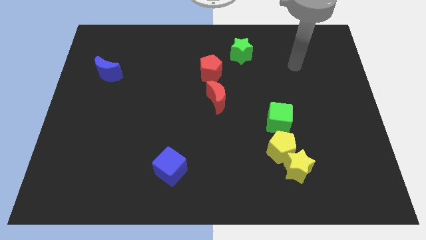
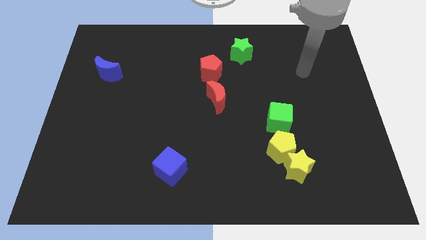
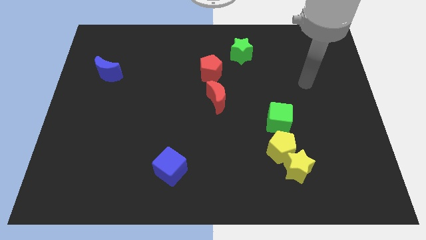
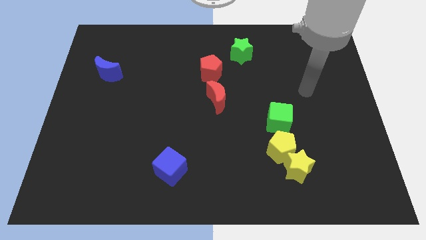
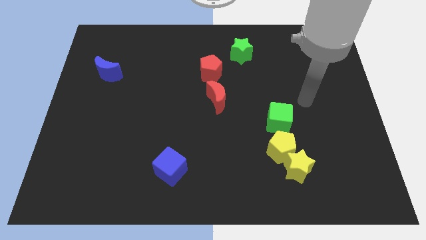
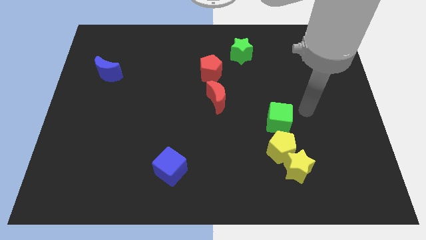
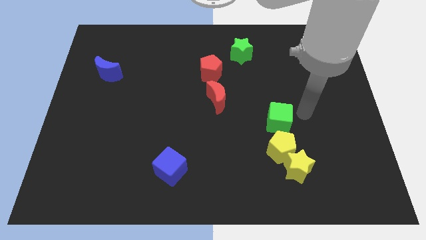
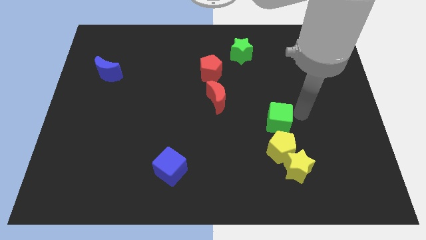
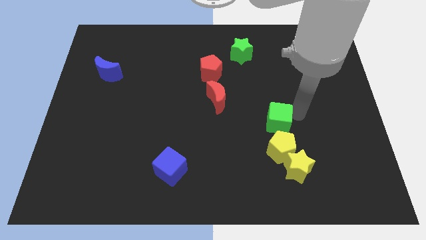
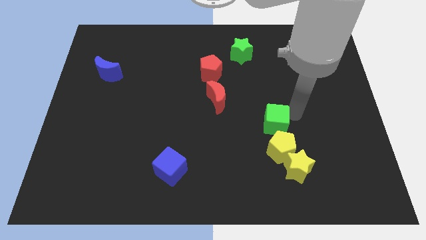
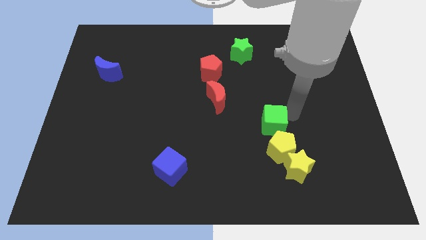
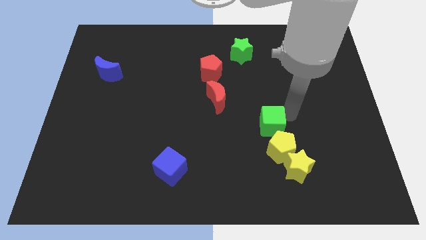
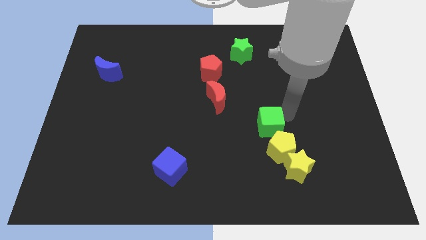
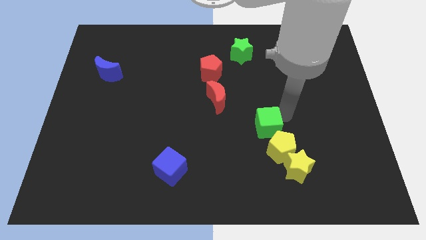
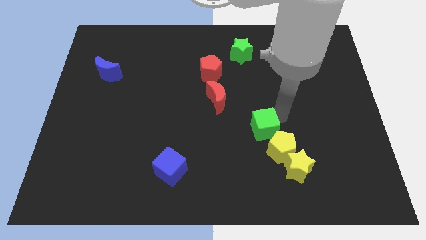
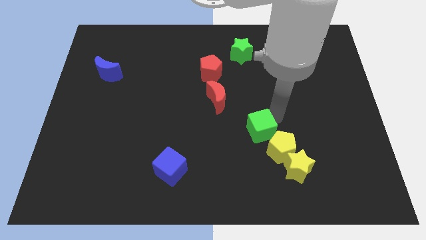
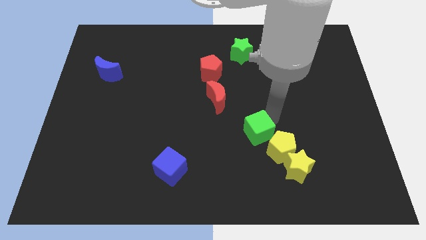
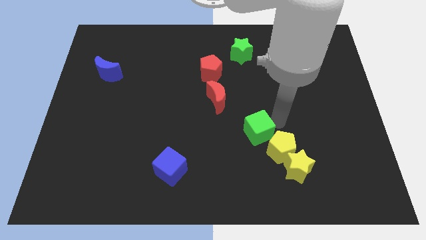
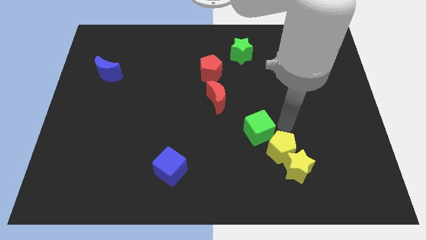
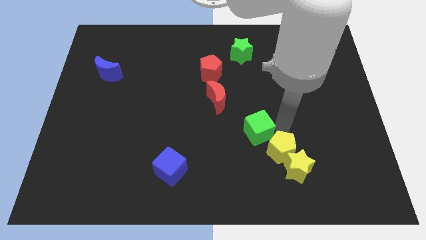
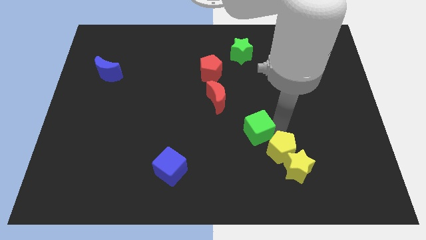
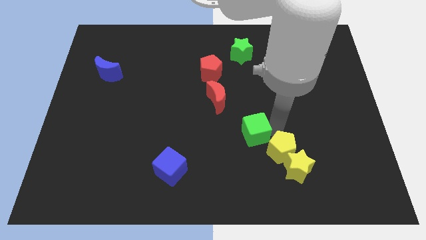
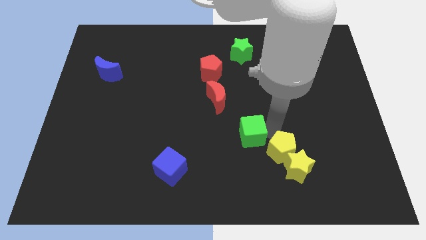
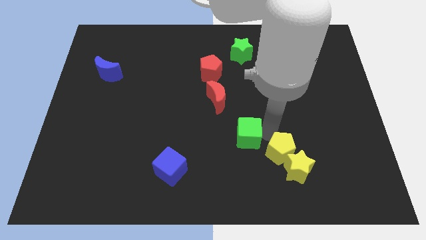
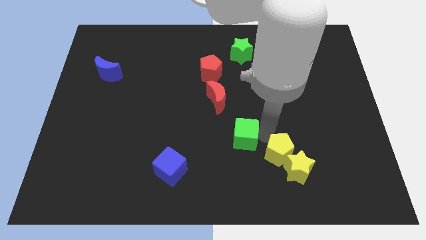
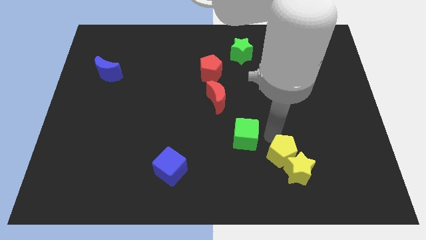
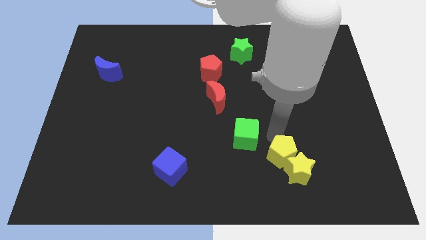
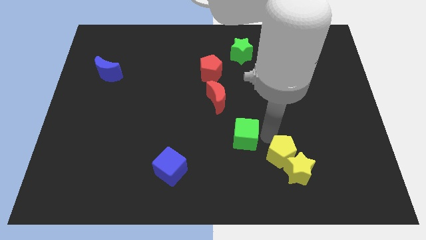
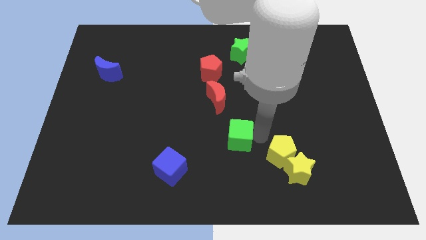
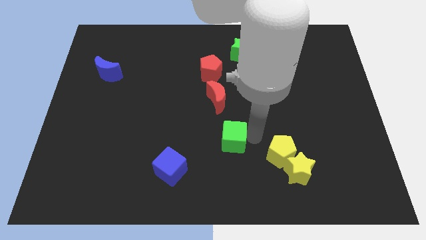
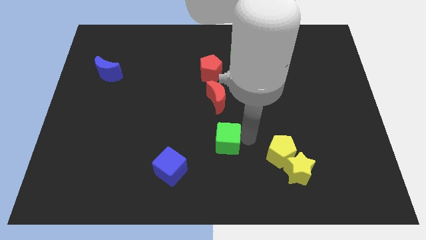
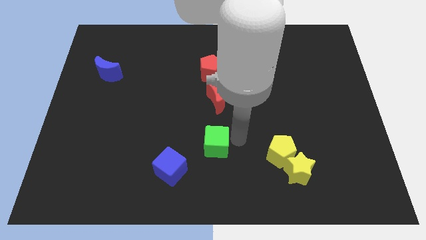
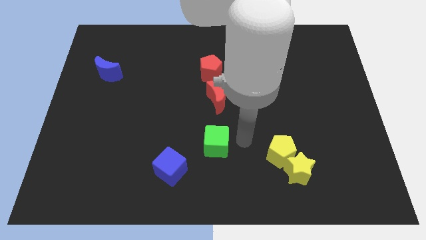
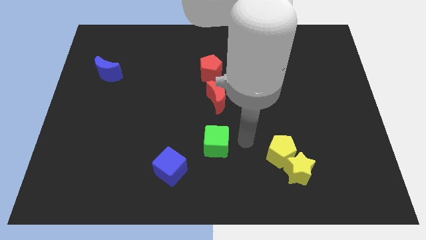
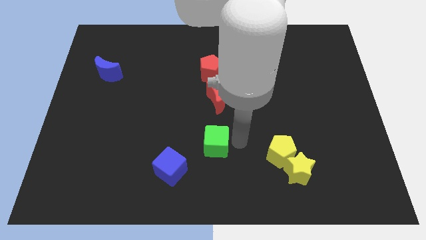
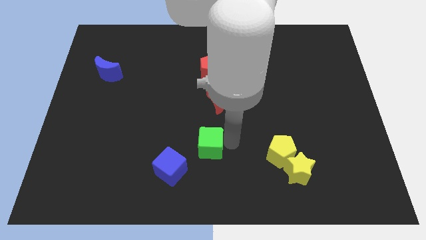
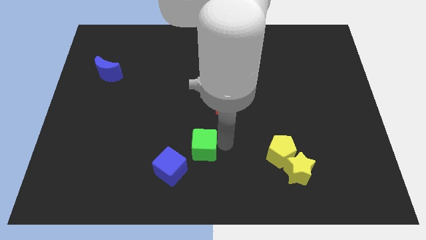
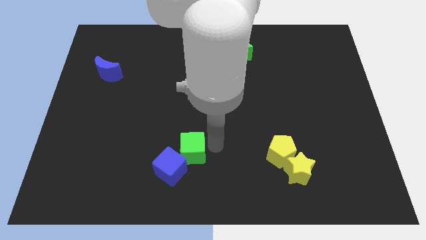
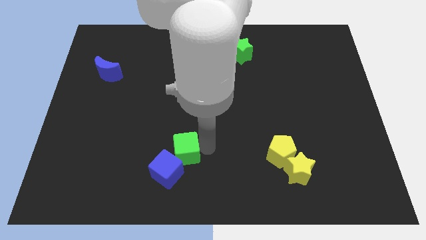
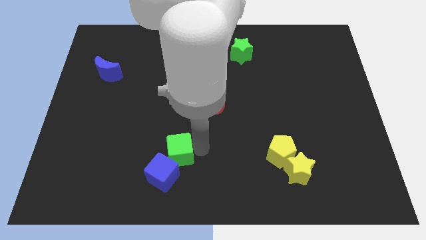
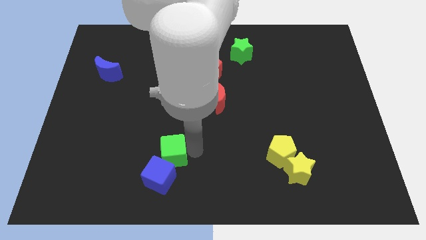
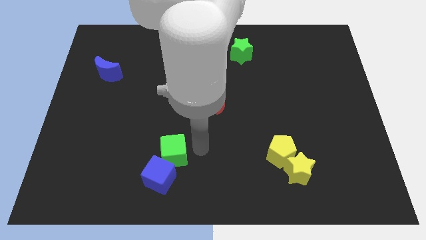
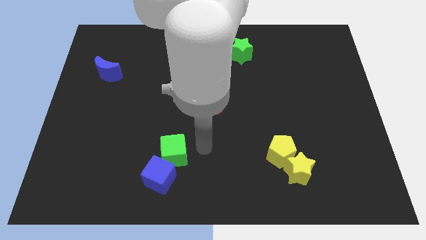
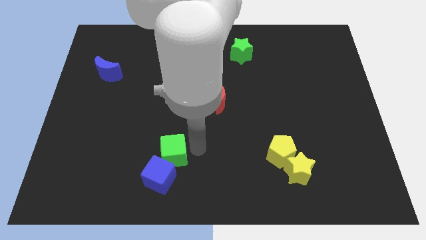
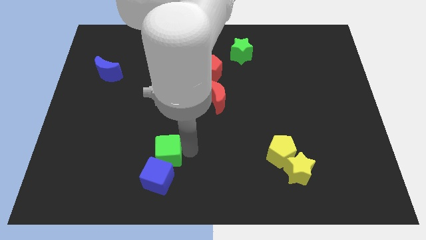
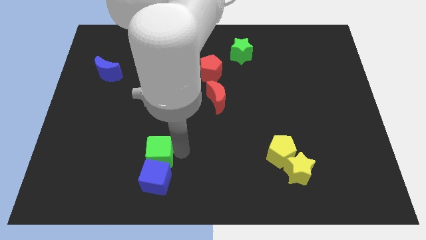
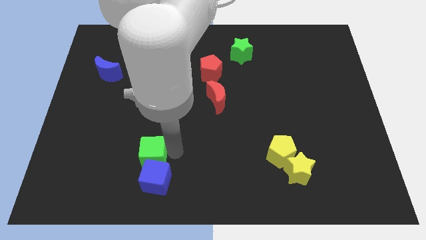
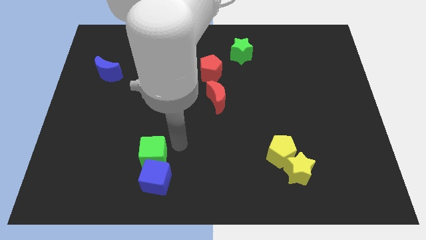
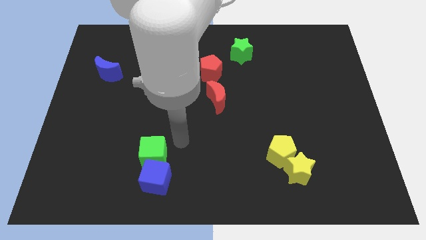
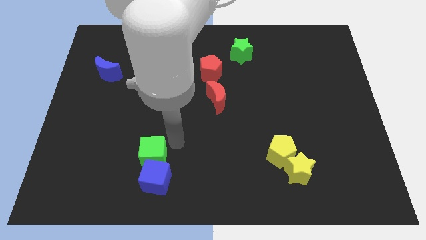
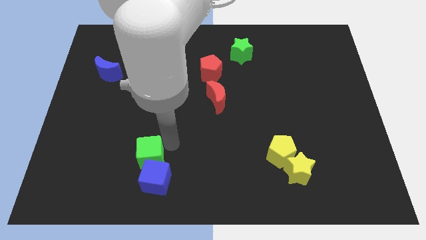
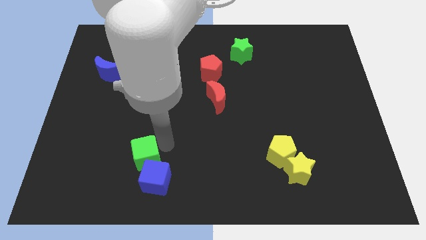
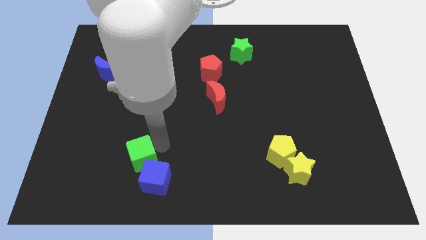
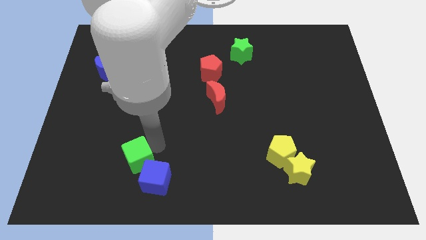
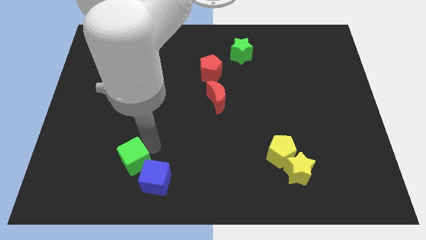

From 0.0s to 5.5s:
slide the green cube just left of the blue cube

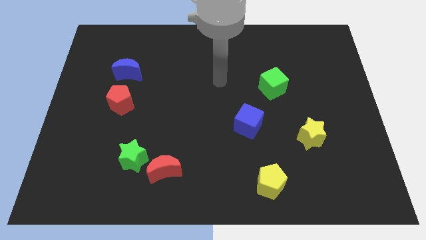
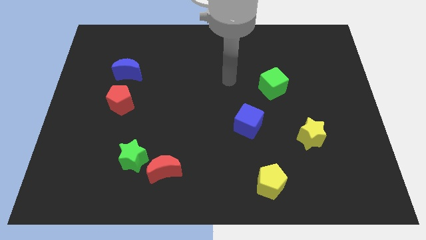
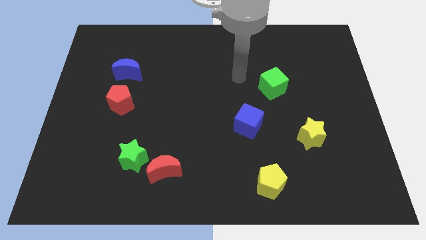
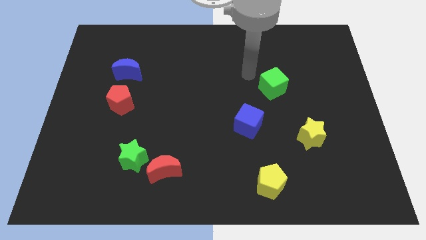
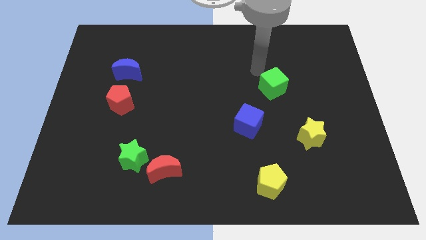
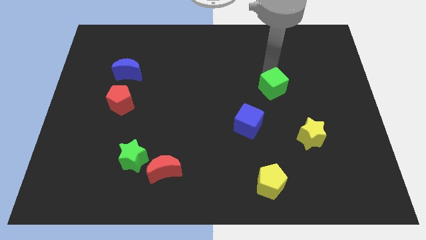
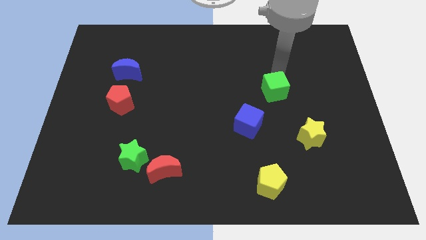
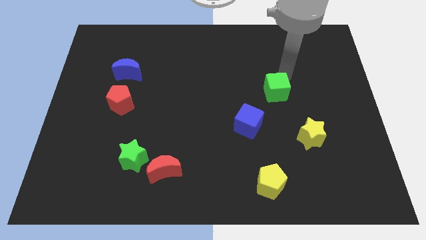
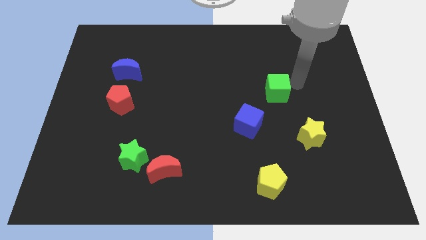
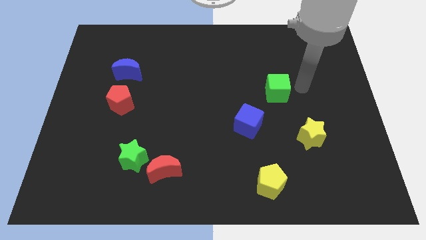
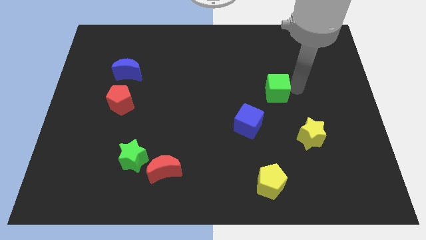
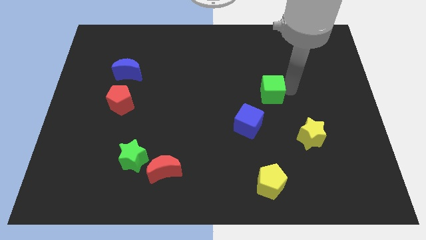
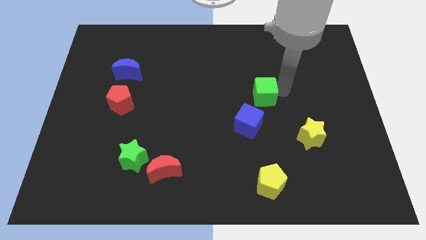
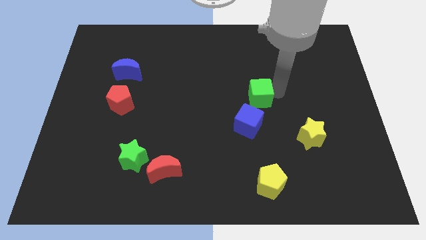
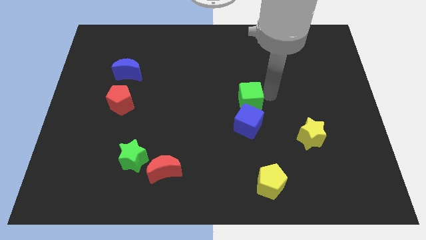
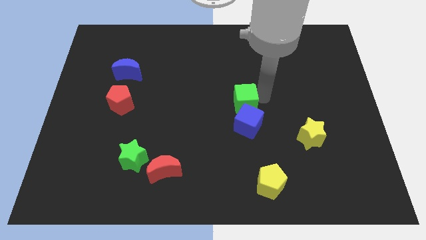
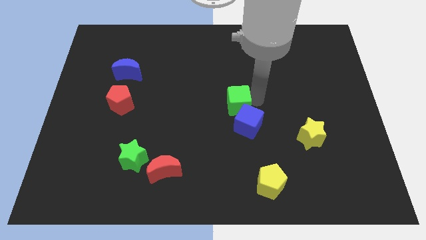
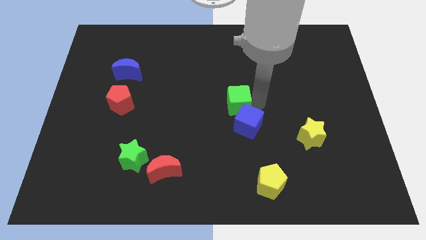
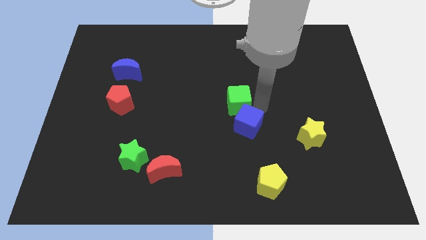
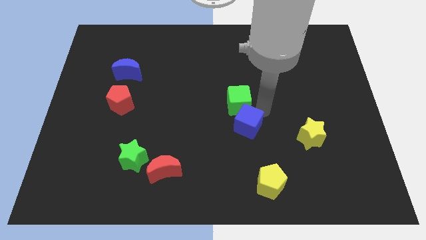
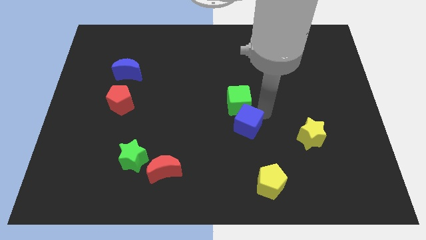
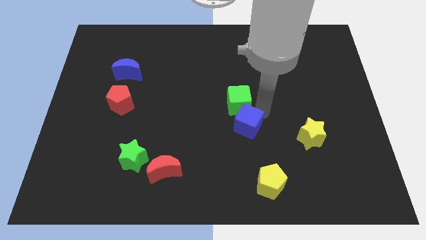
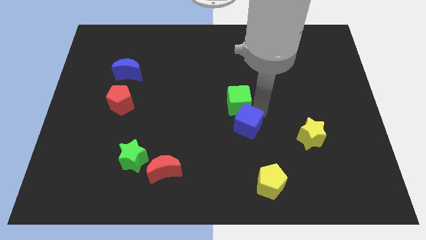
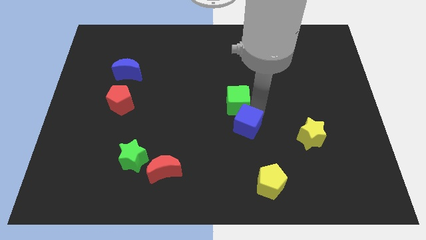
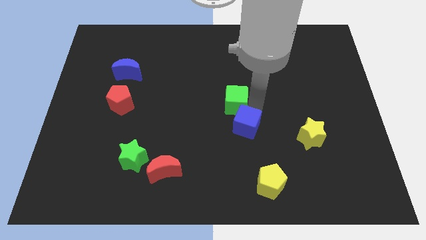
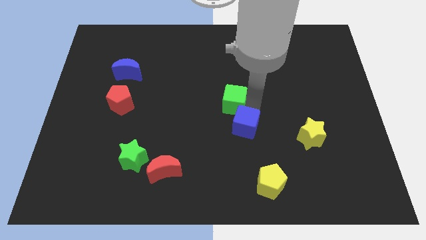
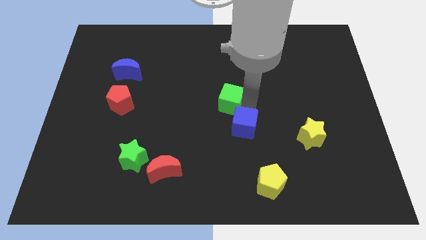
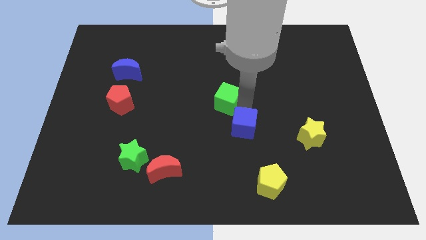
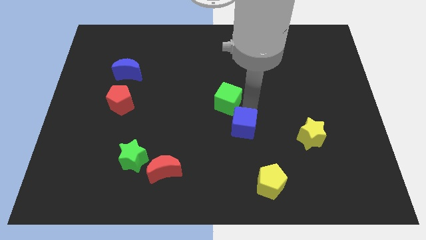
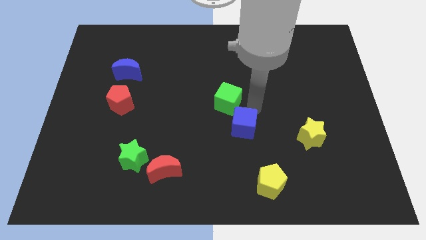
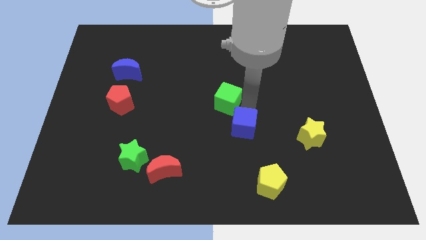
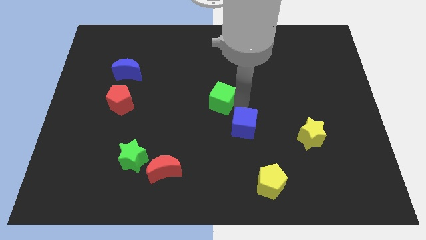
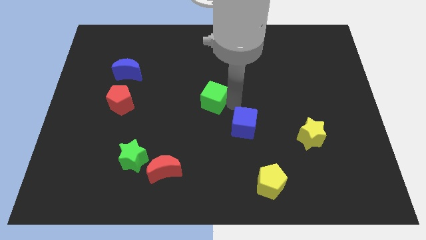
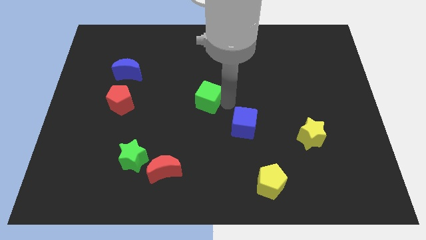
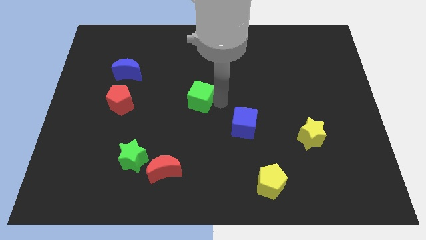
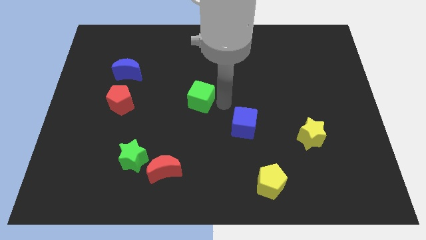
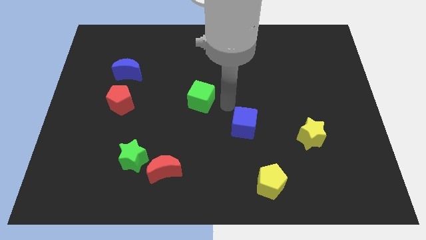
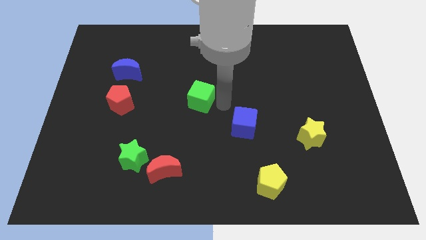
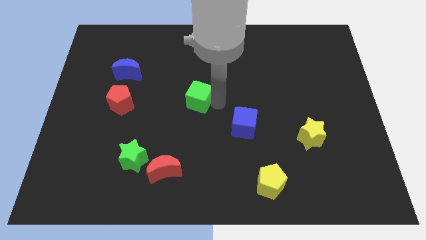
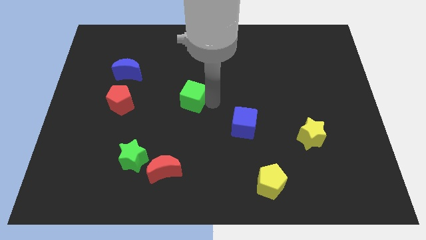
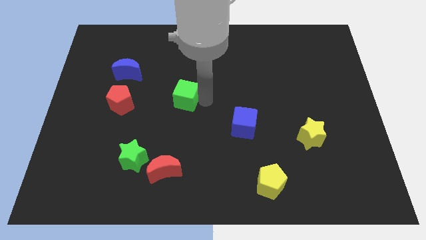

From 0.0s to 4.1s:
push the green cube to the right of the red pentagon
